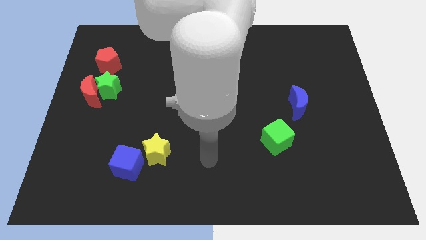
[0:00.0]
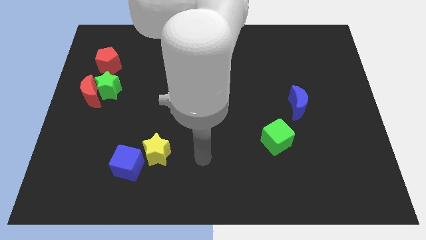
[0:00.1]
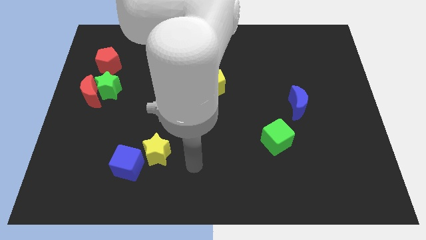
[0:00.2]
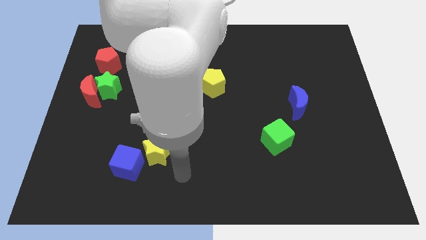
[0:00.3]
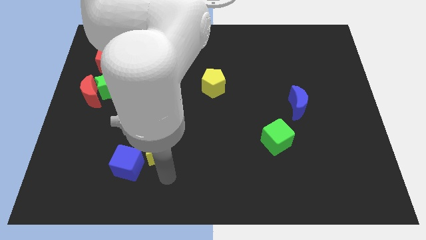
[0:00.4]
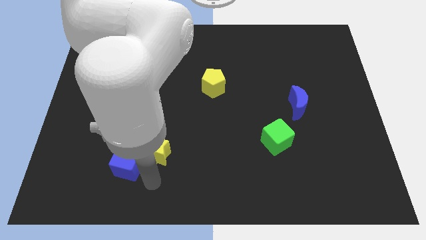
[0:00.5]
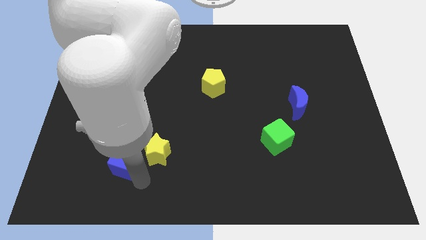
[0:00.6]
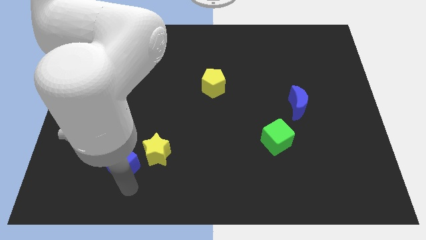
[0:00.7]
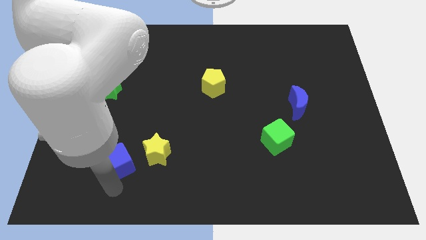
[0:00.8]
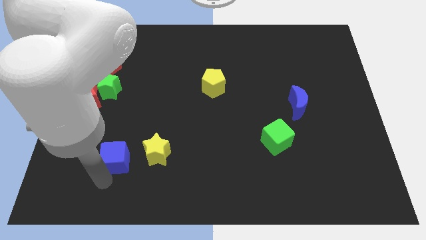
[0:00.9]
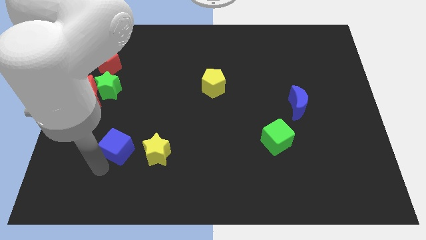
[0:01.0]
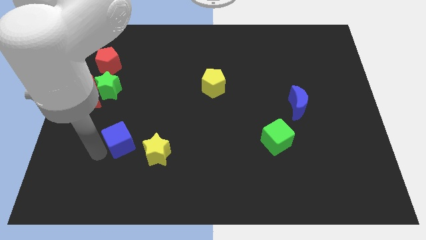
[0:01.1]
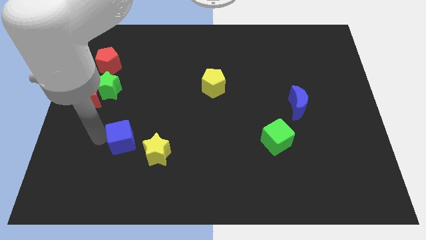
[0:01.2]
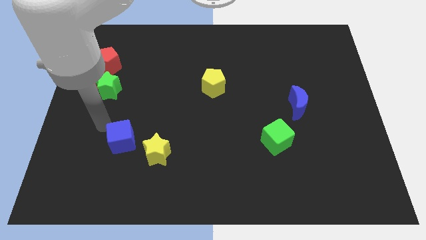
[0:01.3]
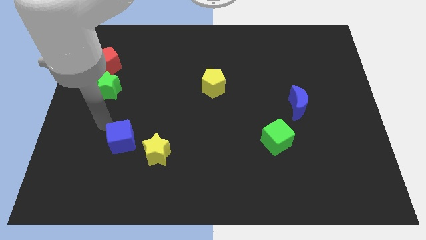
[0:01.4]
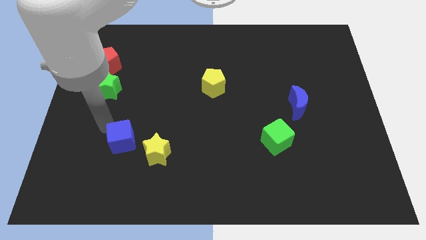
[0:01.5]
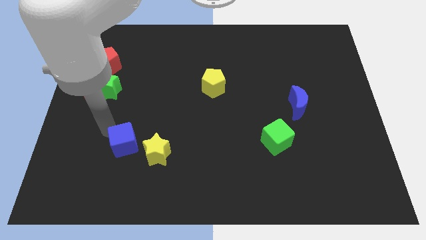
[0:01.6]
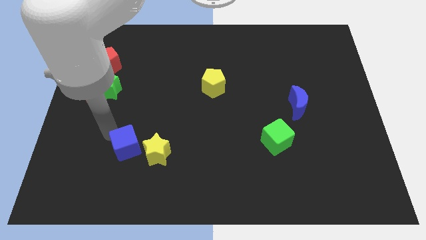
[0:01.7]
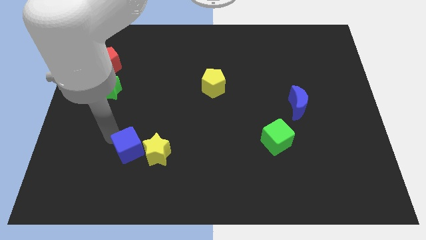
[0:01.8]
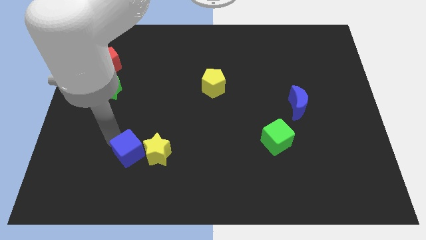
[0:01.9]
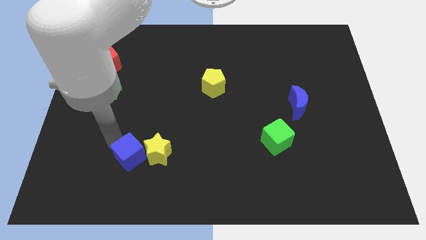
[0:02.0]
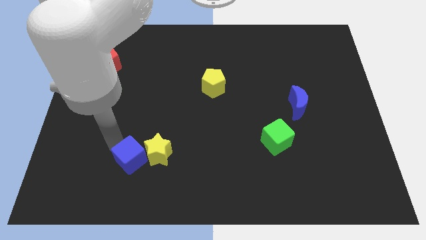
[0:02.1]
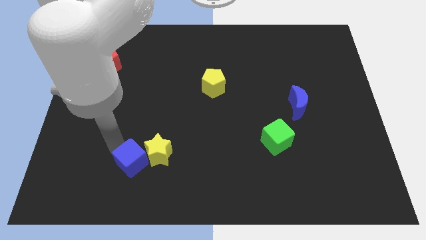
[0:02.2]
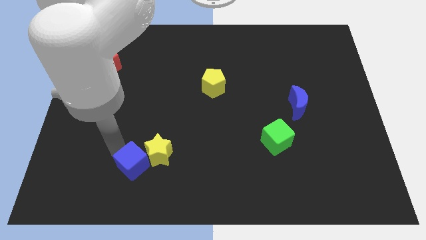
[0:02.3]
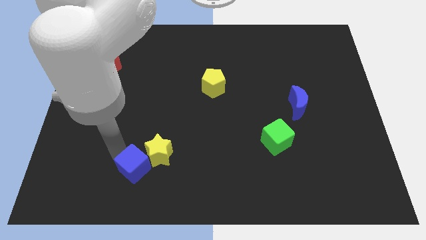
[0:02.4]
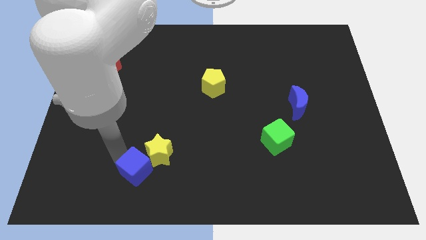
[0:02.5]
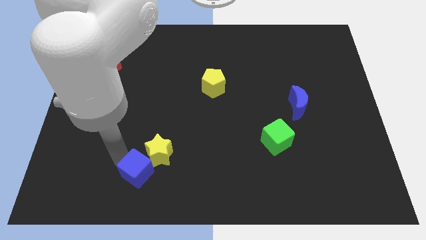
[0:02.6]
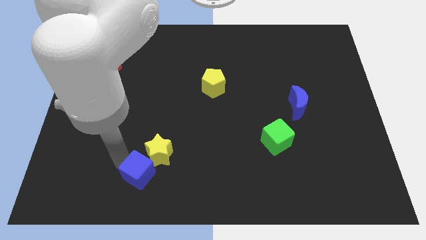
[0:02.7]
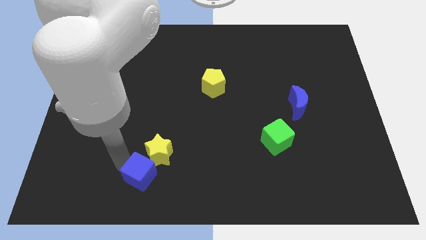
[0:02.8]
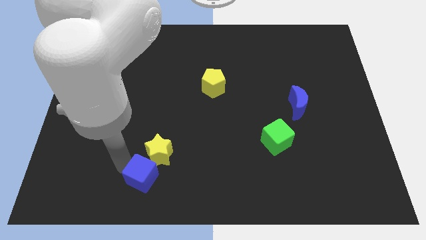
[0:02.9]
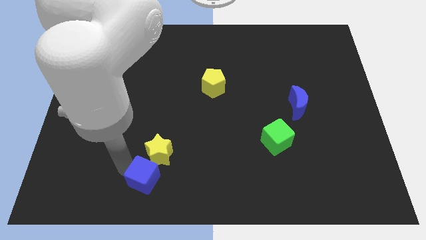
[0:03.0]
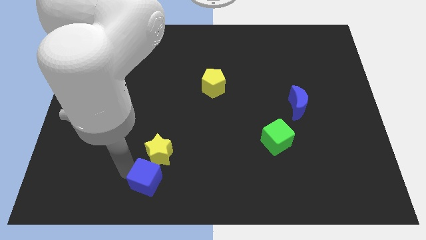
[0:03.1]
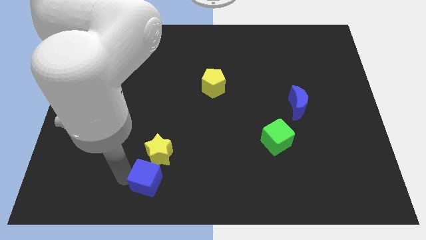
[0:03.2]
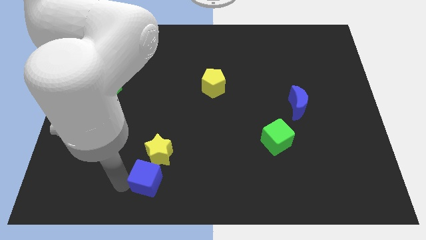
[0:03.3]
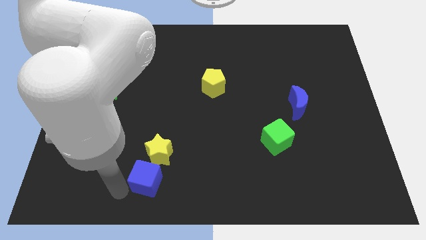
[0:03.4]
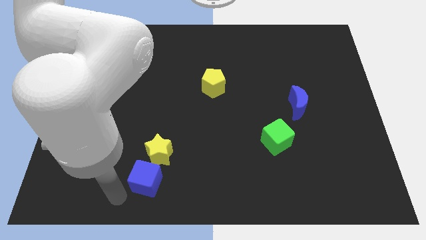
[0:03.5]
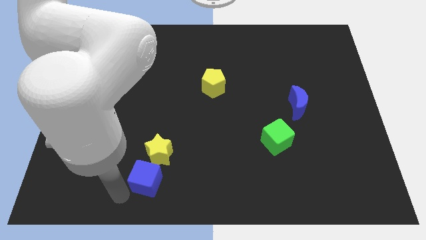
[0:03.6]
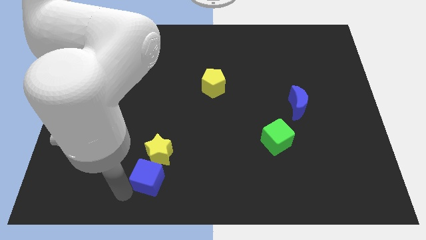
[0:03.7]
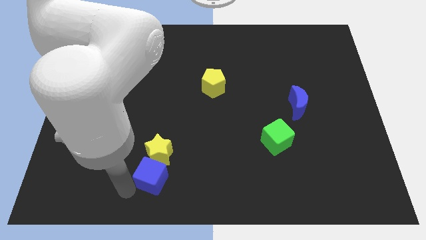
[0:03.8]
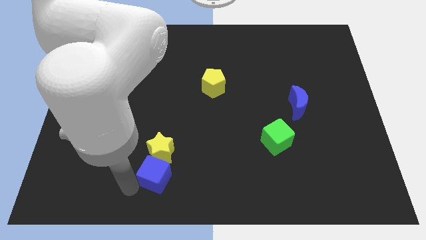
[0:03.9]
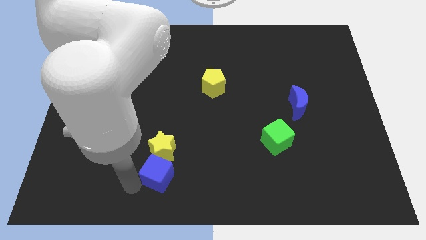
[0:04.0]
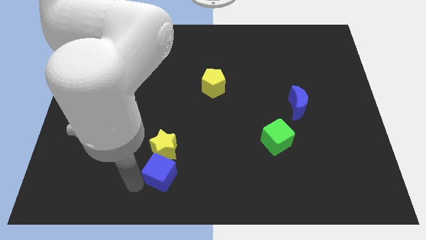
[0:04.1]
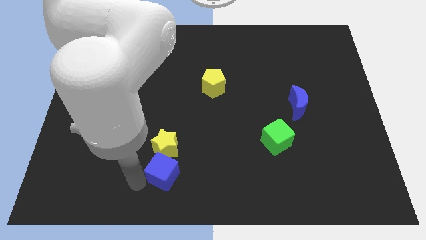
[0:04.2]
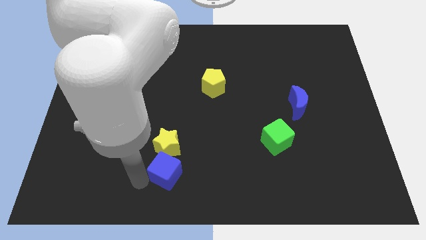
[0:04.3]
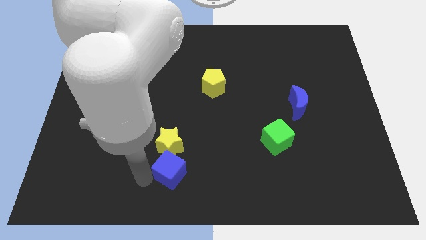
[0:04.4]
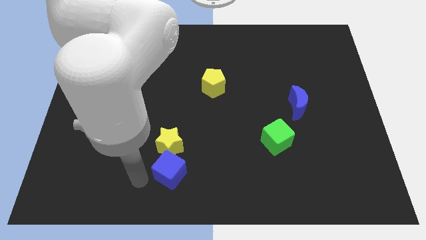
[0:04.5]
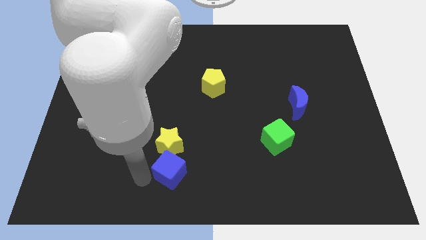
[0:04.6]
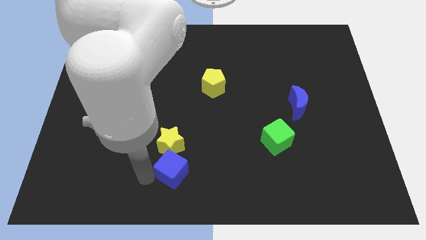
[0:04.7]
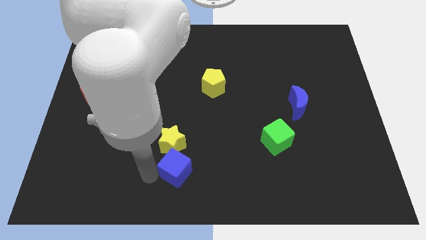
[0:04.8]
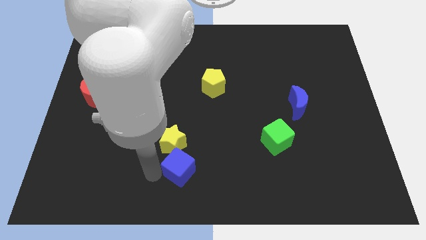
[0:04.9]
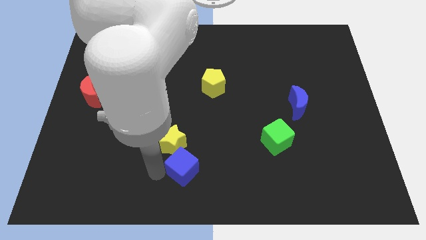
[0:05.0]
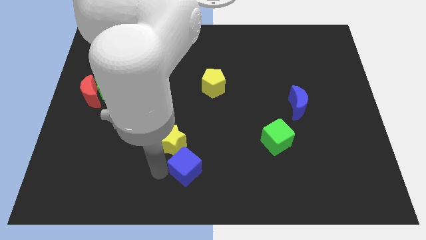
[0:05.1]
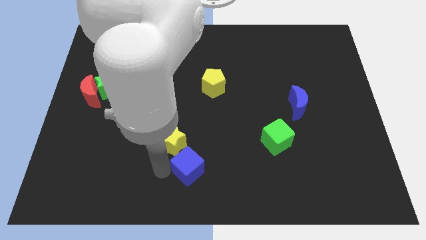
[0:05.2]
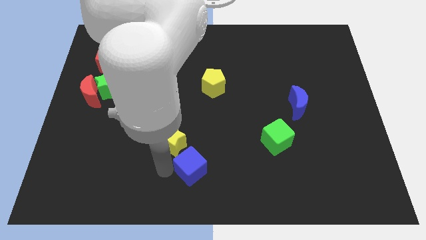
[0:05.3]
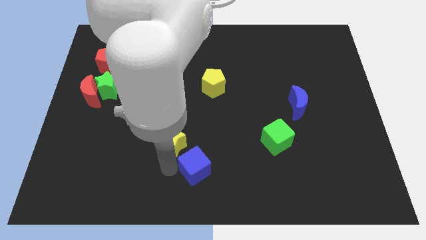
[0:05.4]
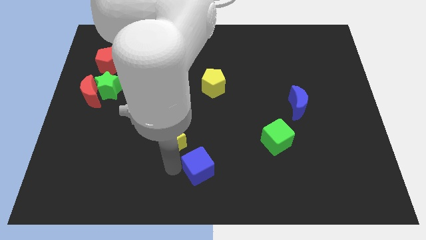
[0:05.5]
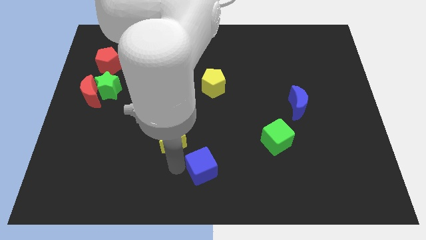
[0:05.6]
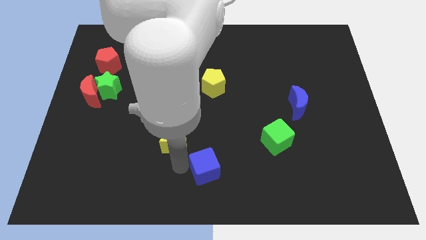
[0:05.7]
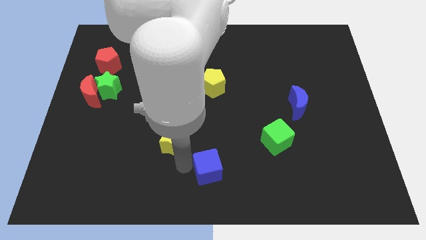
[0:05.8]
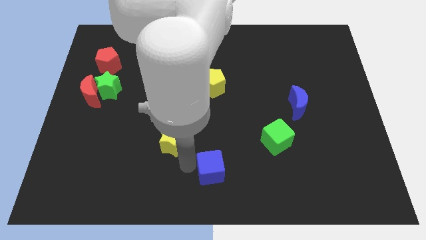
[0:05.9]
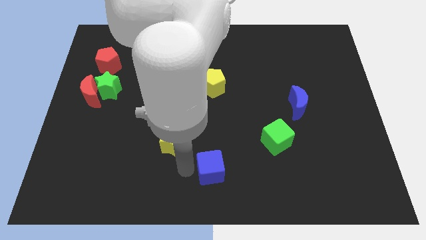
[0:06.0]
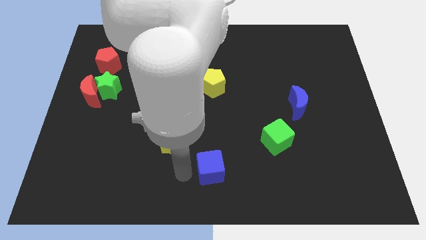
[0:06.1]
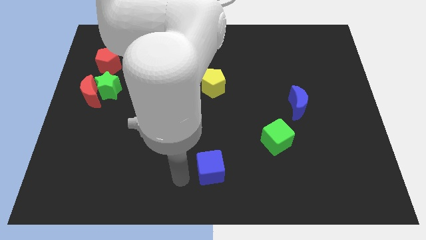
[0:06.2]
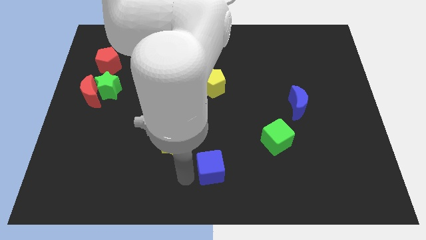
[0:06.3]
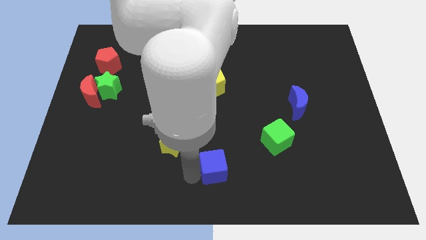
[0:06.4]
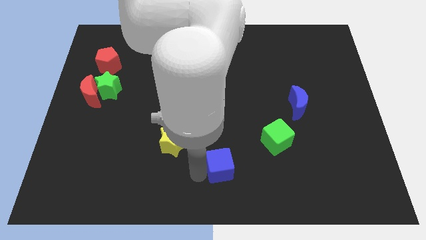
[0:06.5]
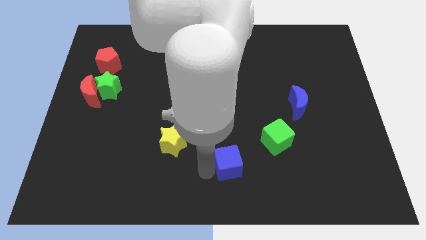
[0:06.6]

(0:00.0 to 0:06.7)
slide the blue cube to the right

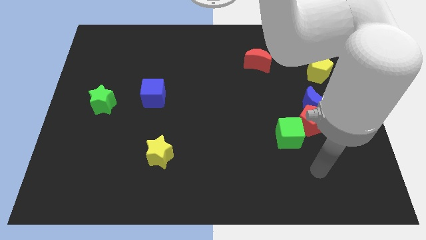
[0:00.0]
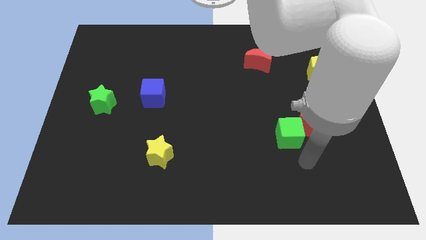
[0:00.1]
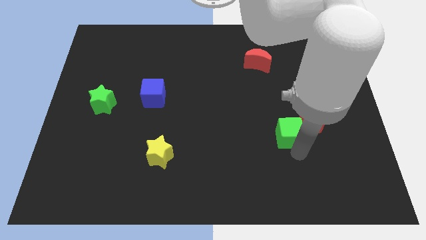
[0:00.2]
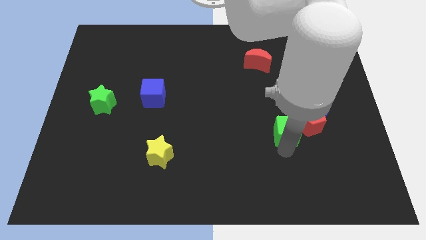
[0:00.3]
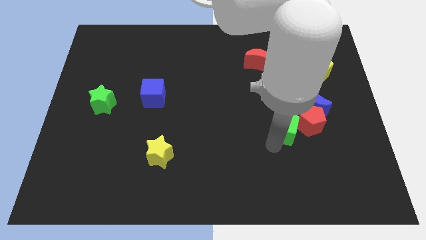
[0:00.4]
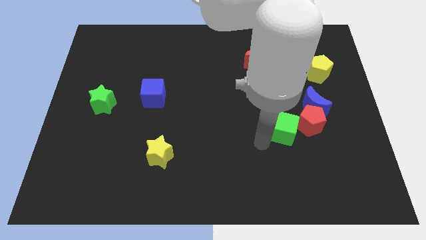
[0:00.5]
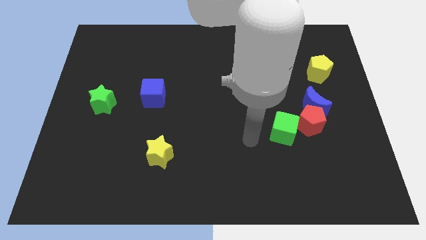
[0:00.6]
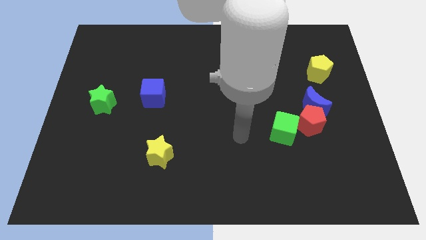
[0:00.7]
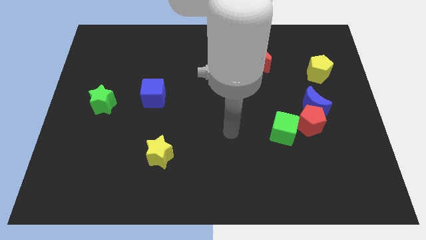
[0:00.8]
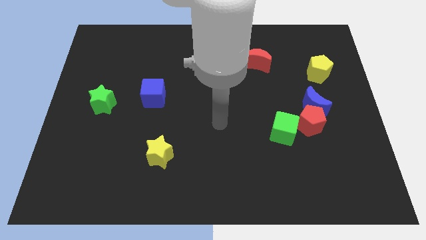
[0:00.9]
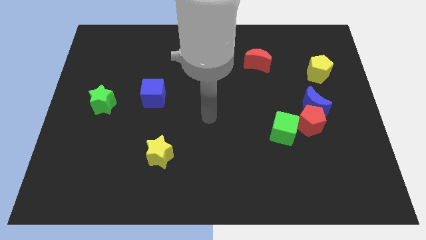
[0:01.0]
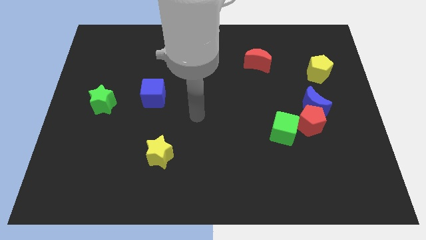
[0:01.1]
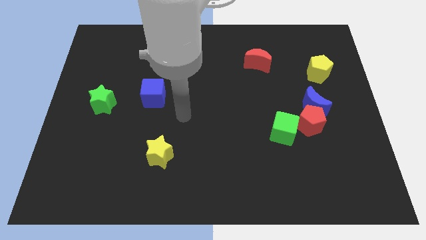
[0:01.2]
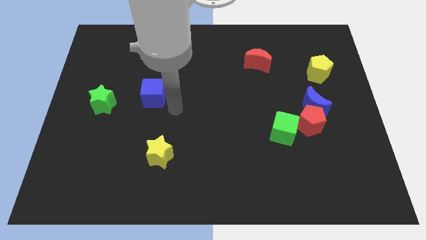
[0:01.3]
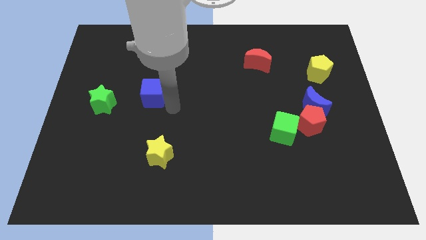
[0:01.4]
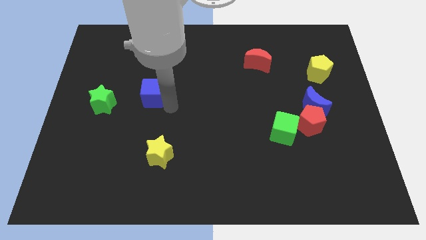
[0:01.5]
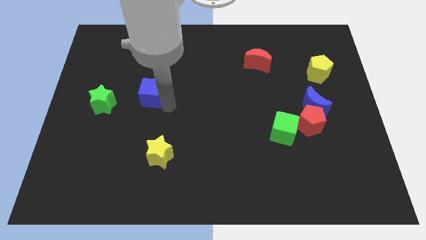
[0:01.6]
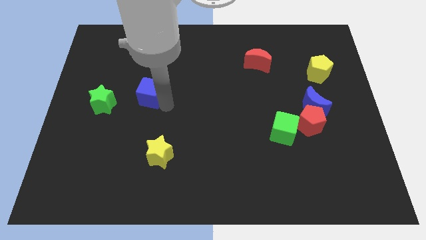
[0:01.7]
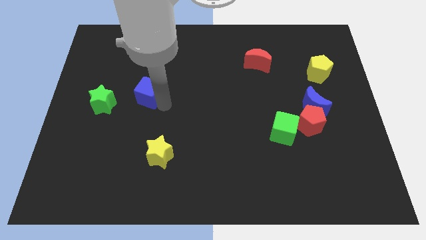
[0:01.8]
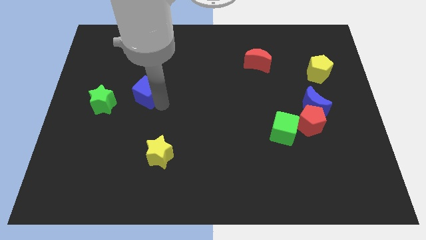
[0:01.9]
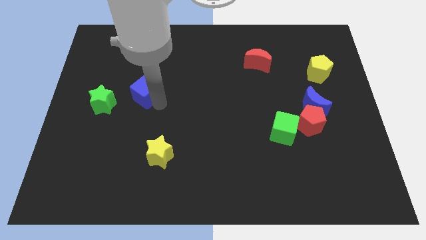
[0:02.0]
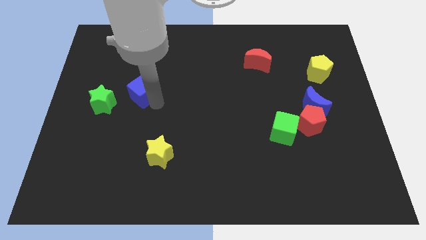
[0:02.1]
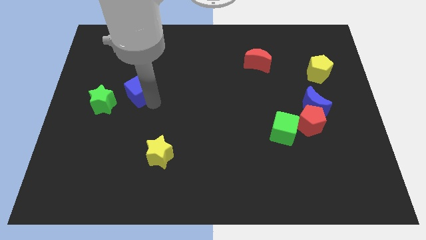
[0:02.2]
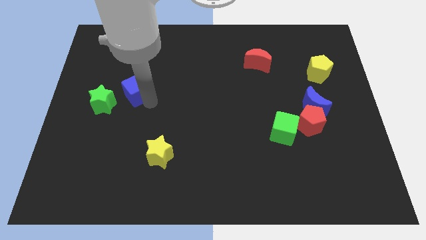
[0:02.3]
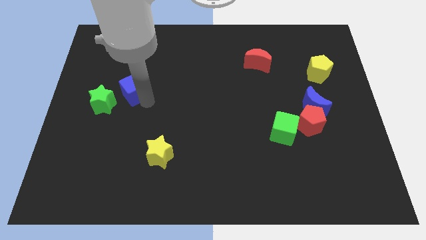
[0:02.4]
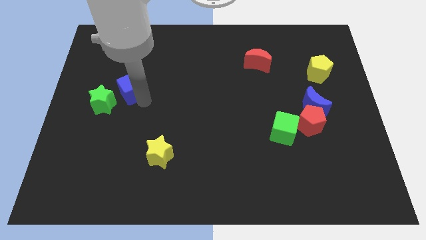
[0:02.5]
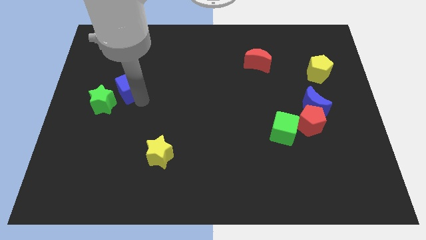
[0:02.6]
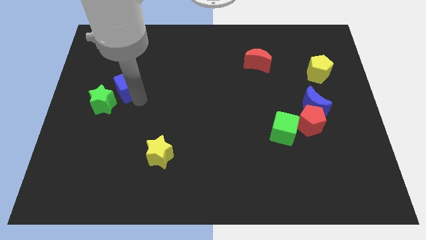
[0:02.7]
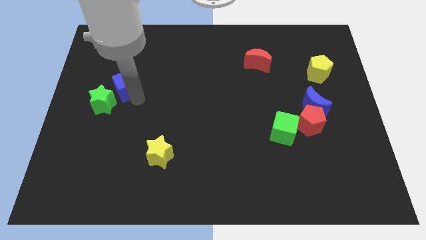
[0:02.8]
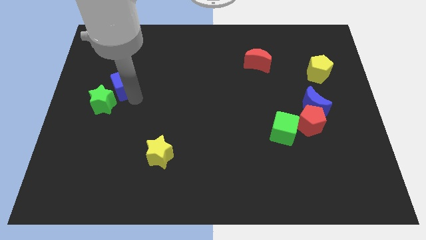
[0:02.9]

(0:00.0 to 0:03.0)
push the blue cube up and then to the left a little bit
